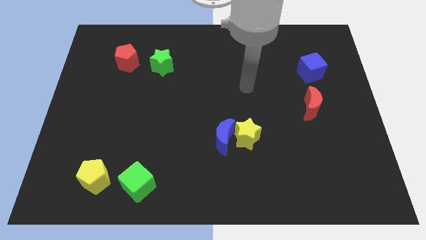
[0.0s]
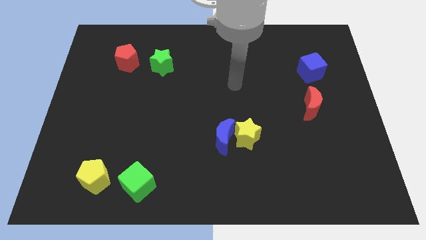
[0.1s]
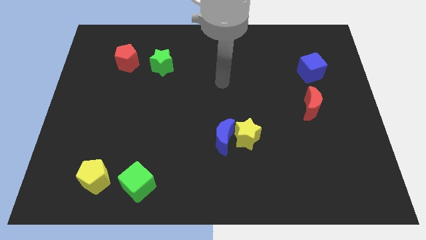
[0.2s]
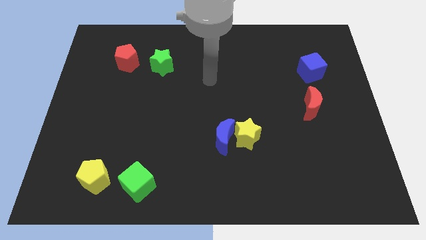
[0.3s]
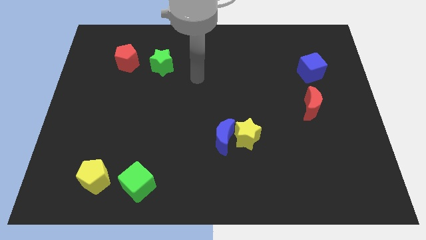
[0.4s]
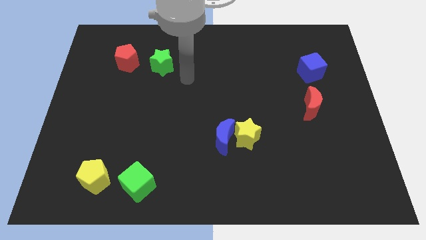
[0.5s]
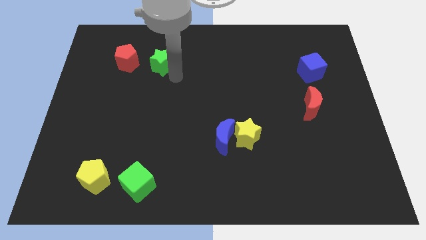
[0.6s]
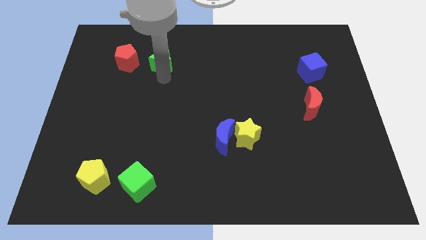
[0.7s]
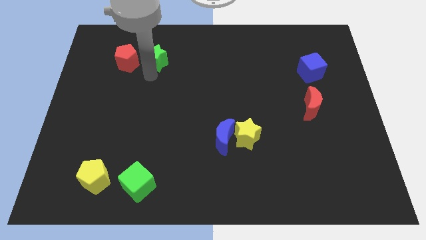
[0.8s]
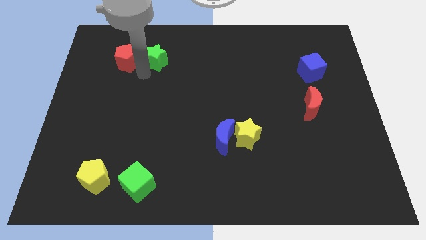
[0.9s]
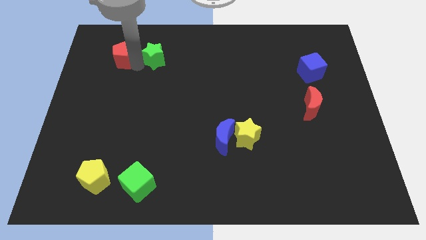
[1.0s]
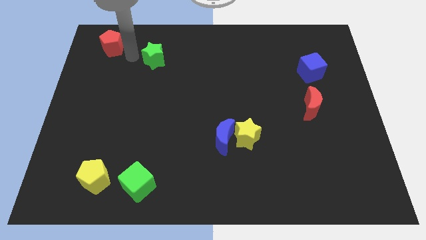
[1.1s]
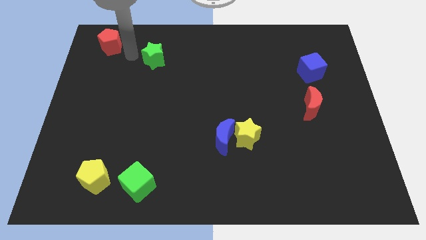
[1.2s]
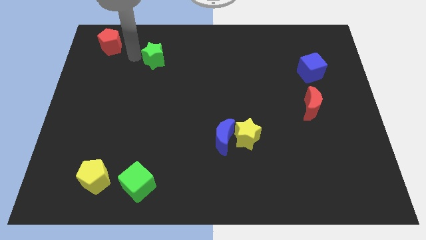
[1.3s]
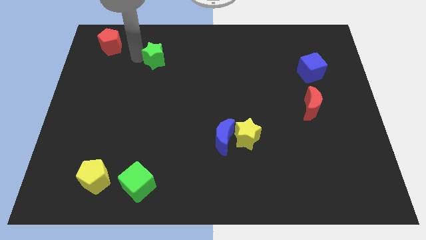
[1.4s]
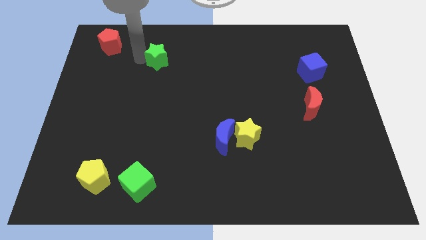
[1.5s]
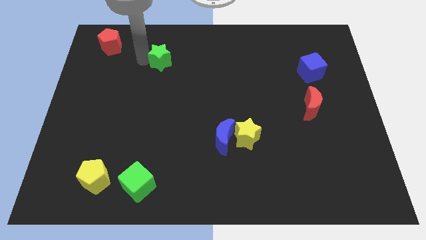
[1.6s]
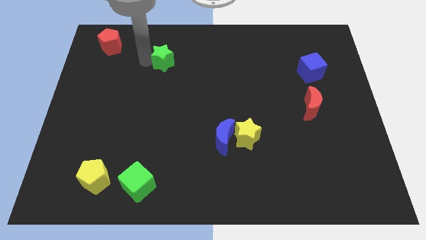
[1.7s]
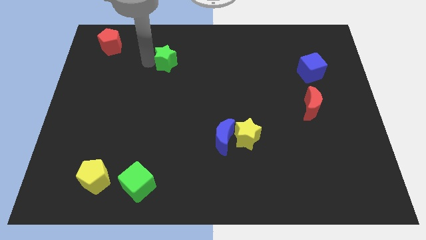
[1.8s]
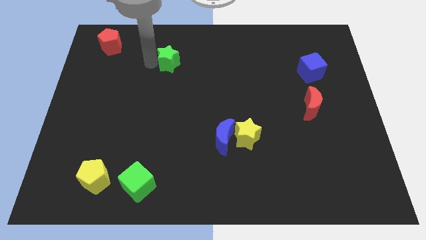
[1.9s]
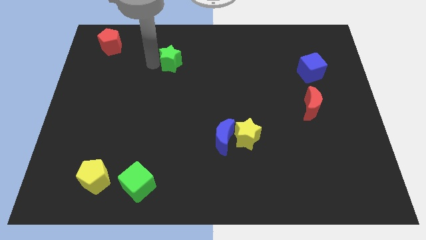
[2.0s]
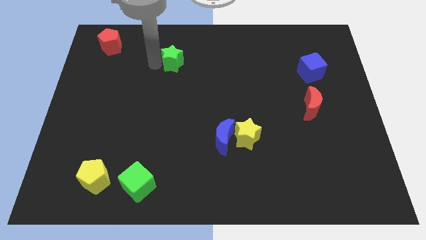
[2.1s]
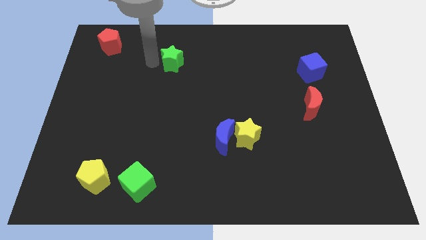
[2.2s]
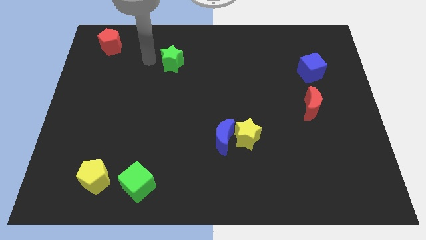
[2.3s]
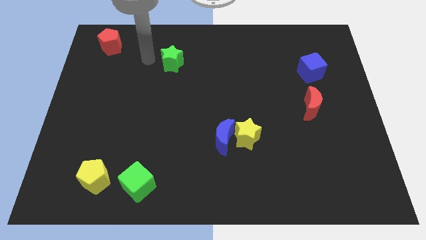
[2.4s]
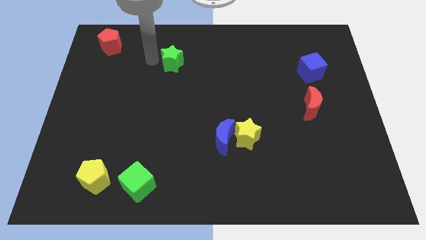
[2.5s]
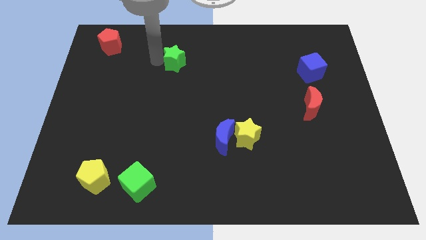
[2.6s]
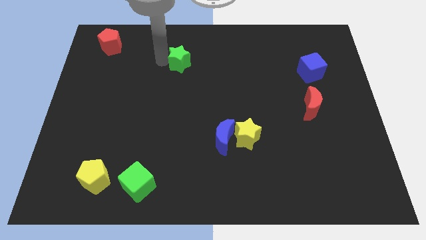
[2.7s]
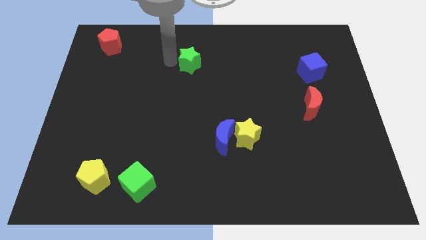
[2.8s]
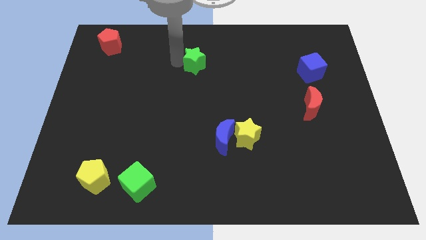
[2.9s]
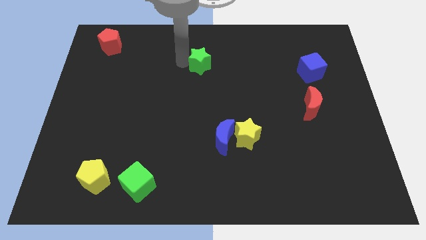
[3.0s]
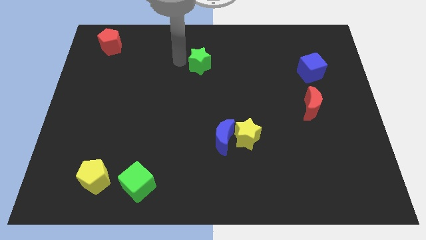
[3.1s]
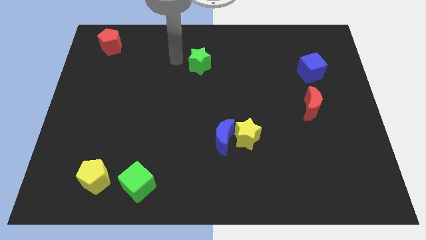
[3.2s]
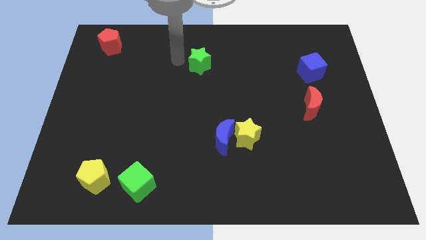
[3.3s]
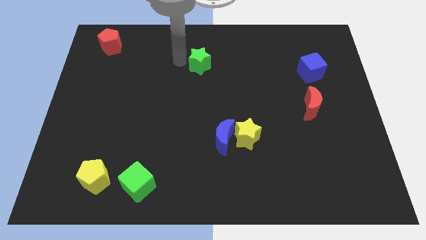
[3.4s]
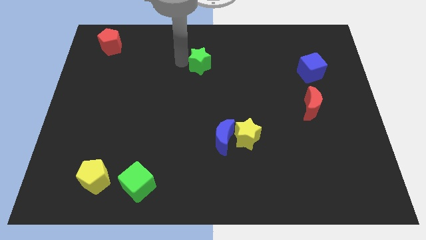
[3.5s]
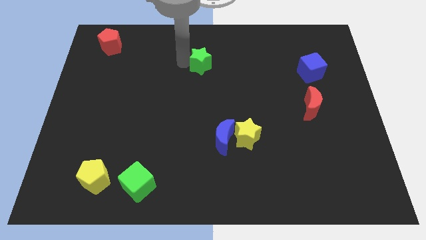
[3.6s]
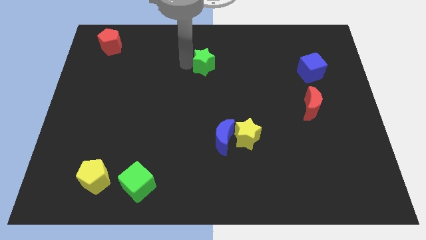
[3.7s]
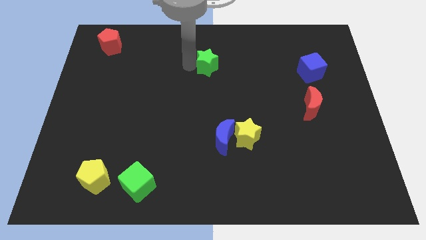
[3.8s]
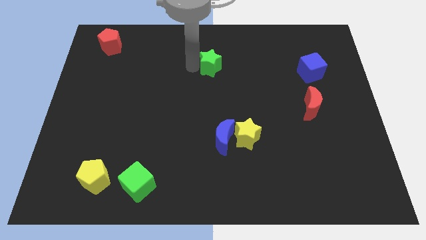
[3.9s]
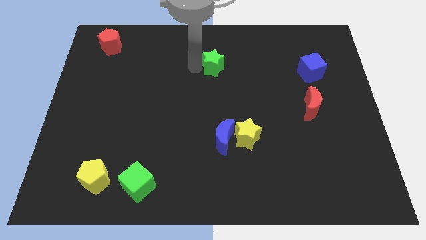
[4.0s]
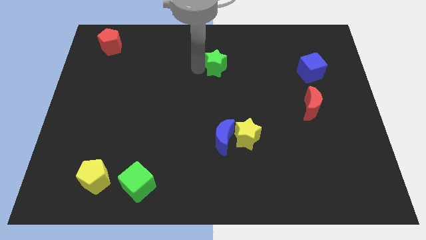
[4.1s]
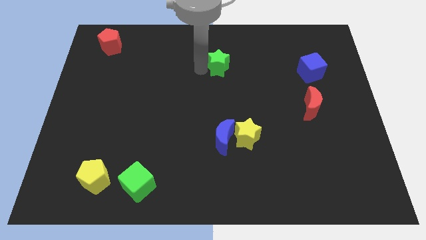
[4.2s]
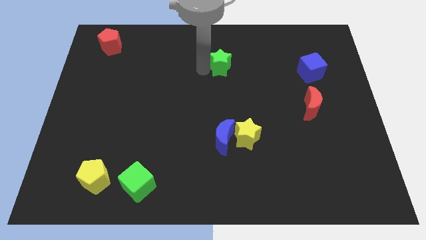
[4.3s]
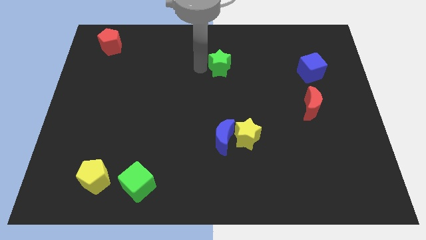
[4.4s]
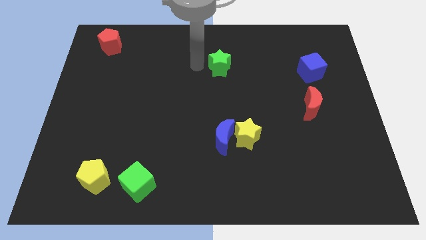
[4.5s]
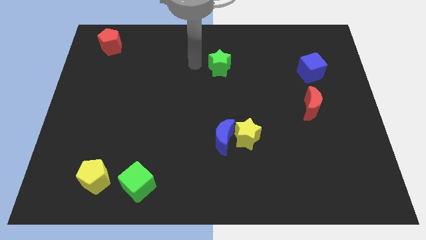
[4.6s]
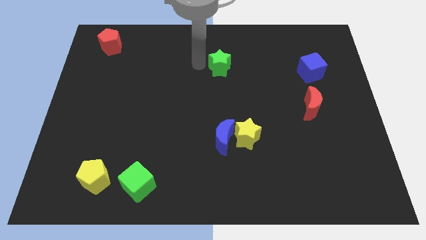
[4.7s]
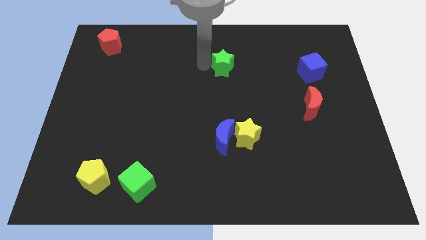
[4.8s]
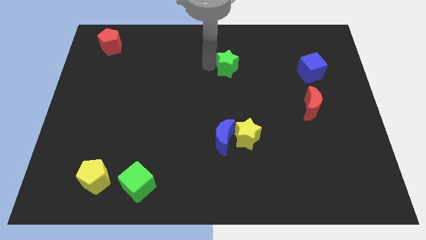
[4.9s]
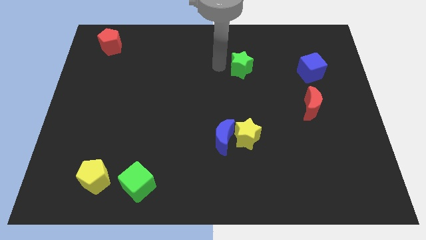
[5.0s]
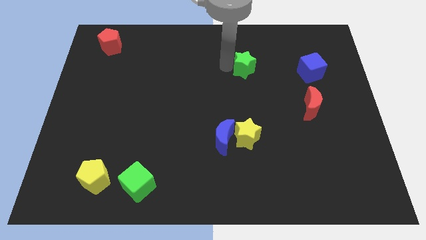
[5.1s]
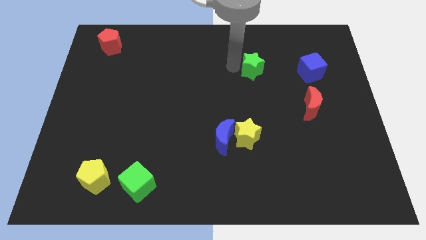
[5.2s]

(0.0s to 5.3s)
move the green star to the left side of the blue cube

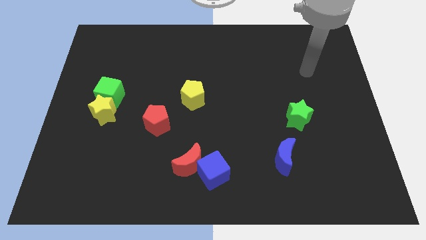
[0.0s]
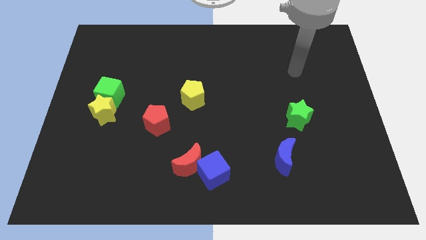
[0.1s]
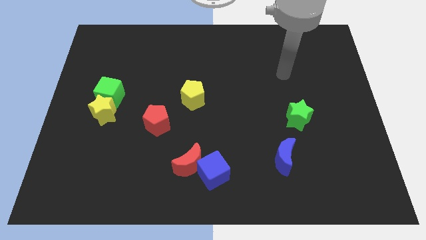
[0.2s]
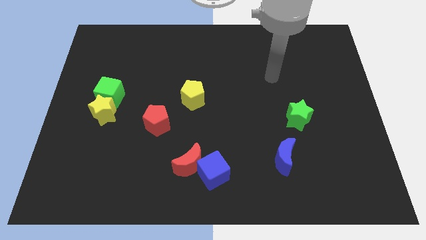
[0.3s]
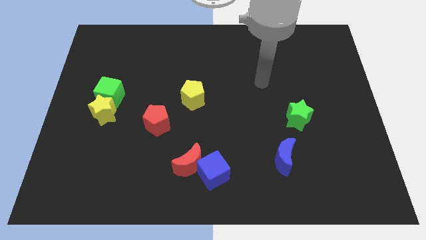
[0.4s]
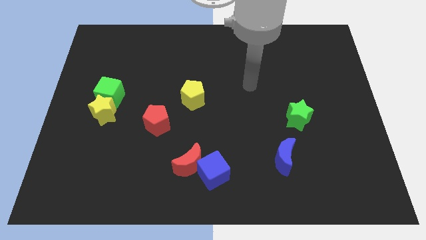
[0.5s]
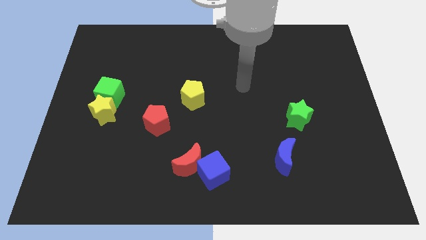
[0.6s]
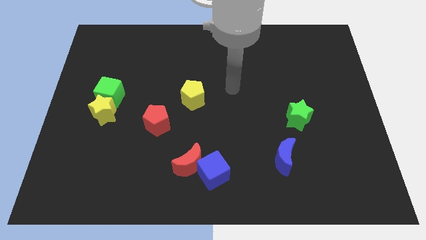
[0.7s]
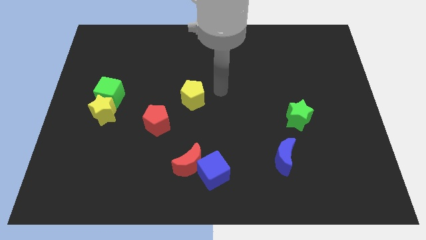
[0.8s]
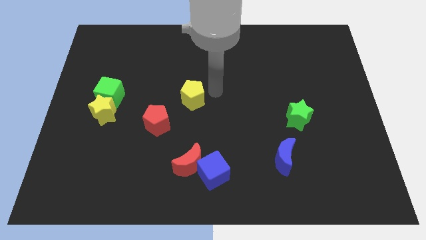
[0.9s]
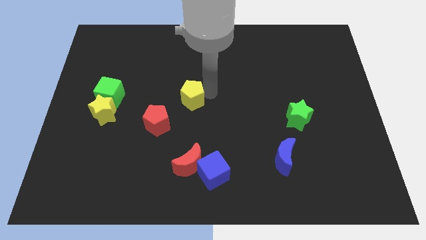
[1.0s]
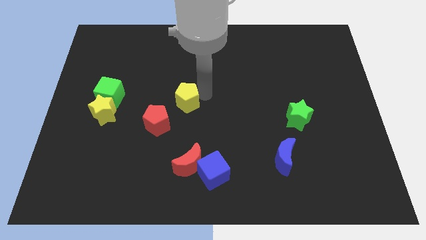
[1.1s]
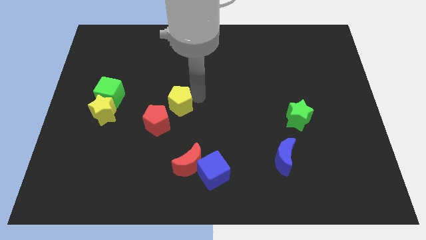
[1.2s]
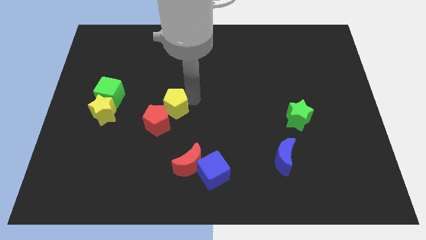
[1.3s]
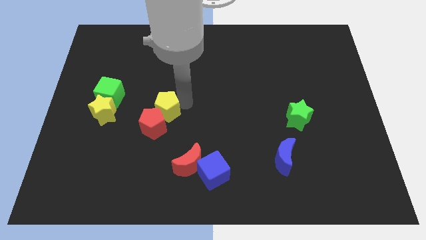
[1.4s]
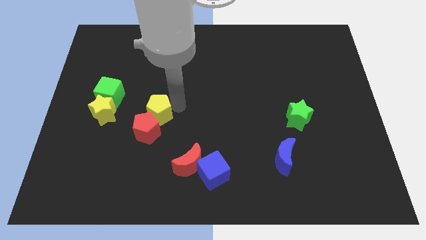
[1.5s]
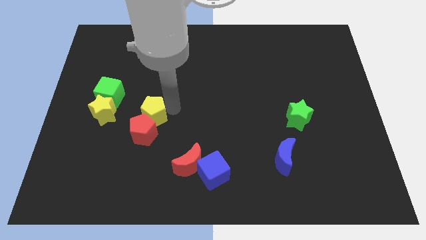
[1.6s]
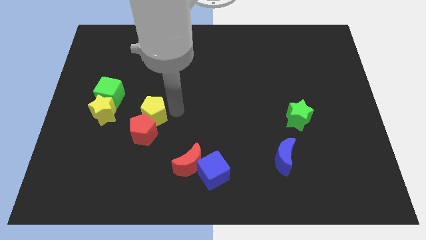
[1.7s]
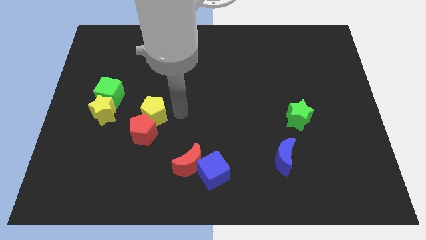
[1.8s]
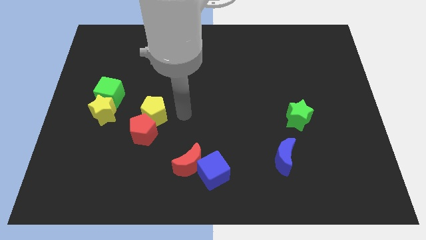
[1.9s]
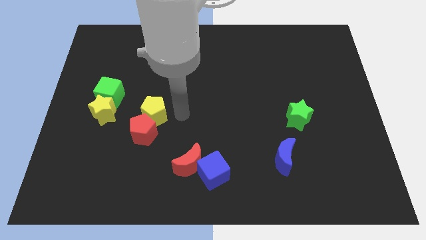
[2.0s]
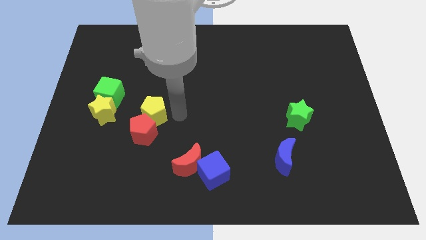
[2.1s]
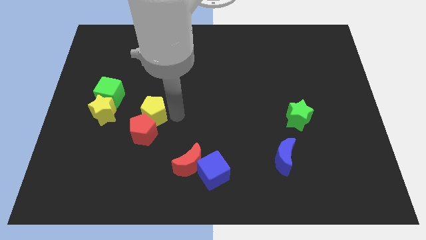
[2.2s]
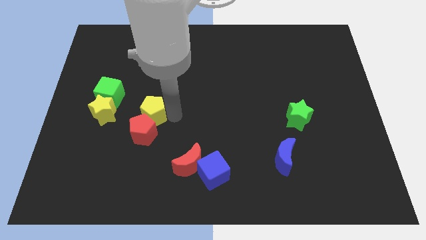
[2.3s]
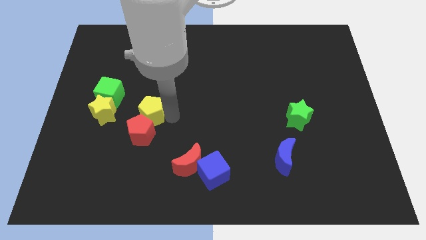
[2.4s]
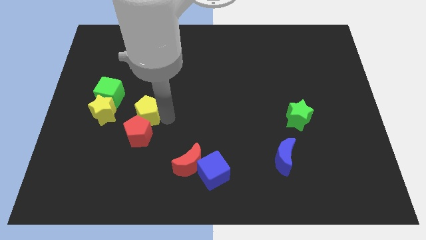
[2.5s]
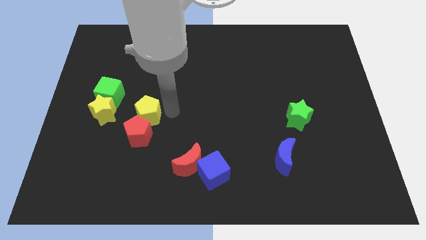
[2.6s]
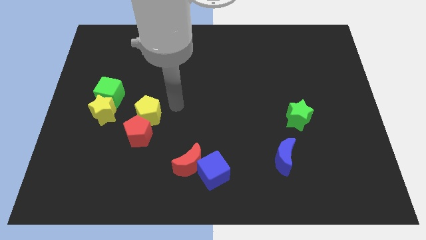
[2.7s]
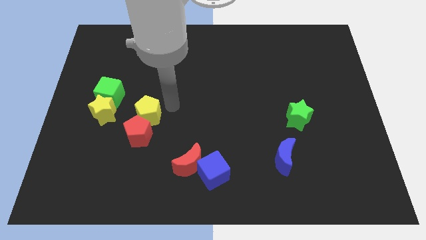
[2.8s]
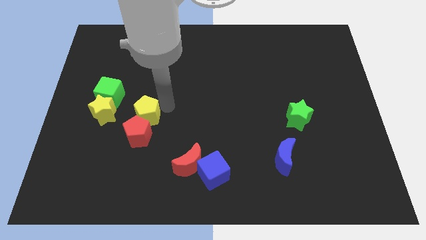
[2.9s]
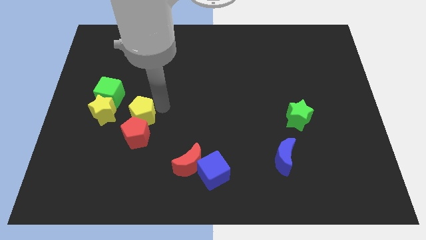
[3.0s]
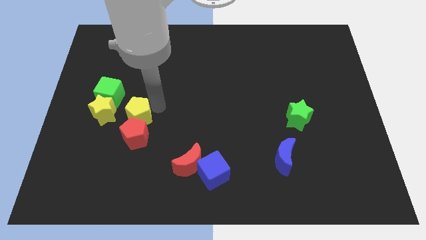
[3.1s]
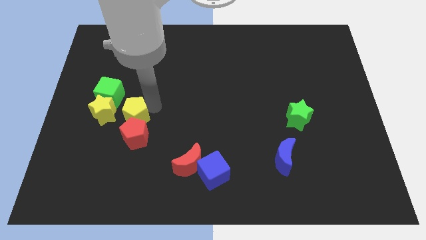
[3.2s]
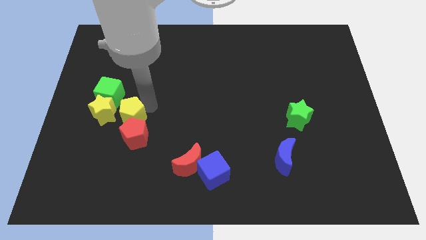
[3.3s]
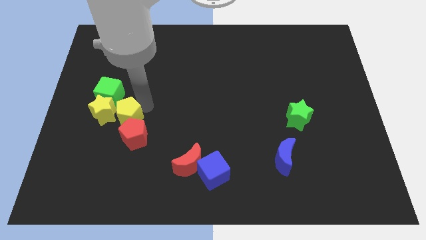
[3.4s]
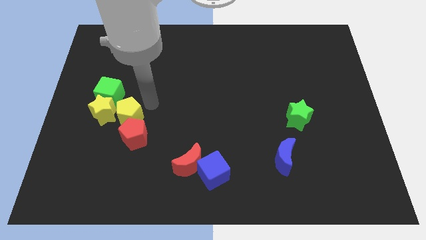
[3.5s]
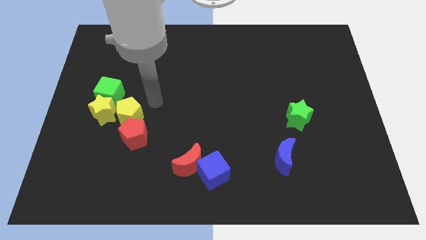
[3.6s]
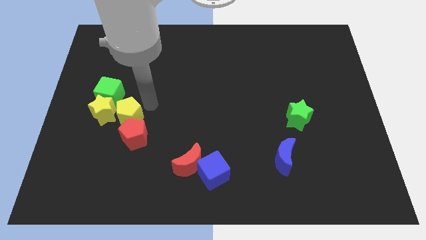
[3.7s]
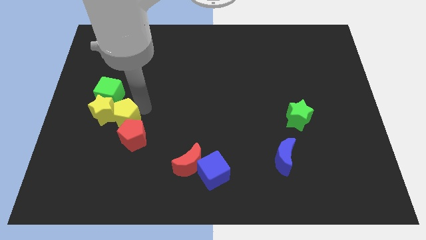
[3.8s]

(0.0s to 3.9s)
move the yellow pentagon to the bottom side of the green cube
